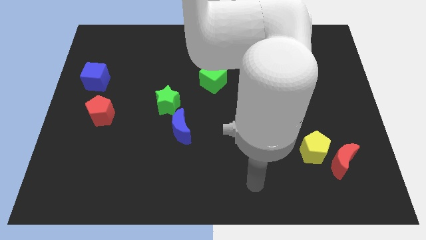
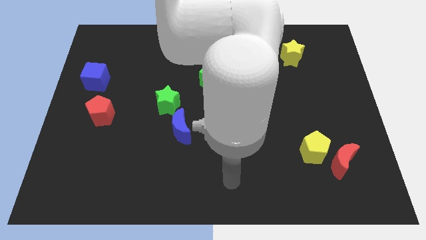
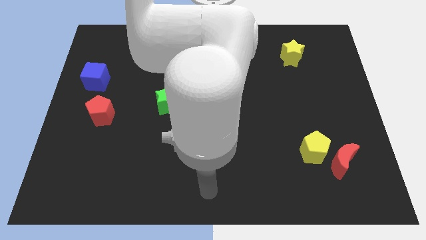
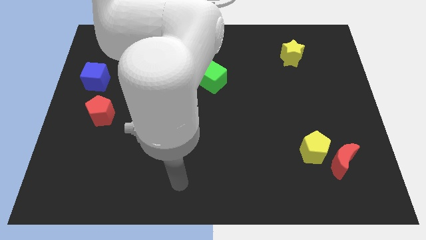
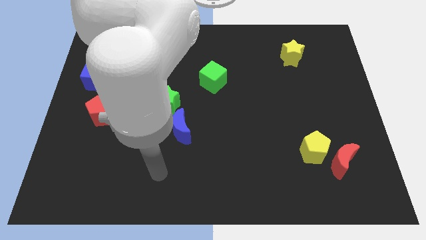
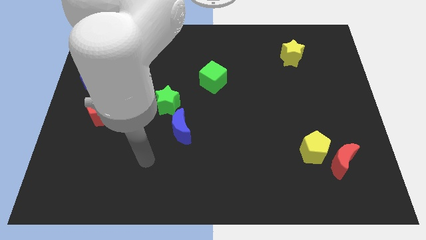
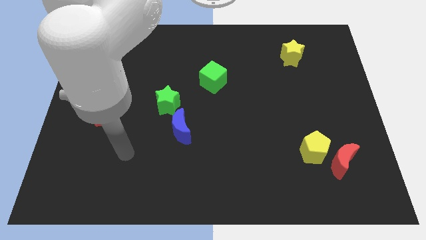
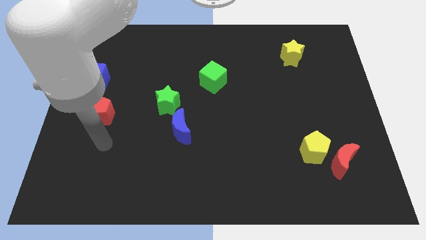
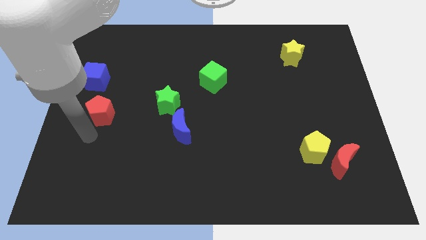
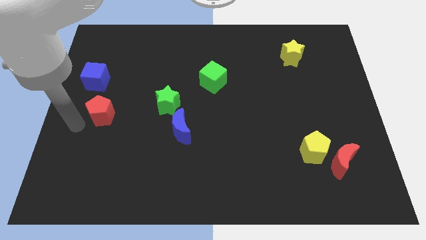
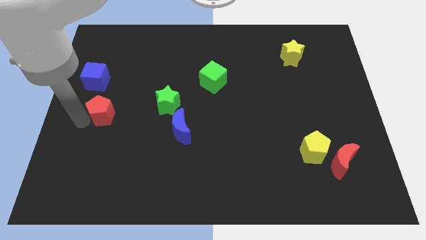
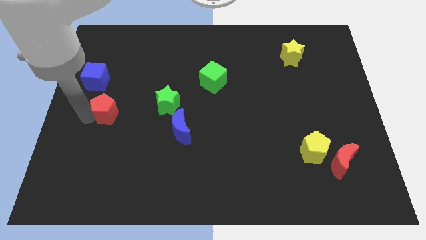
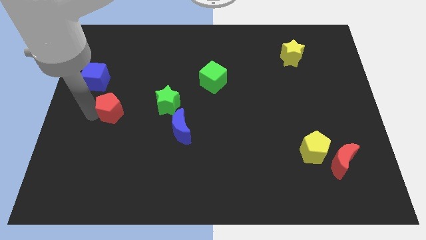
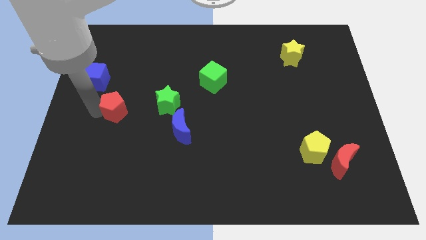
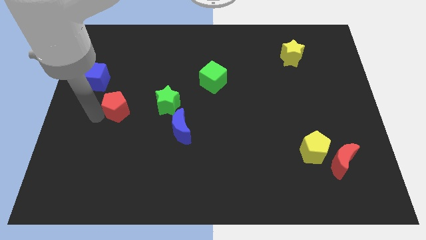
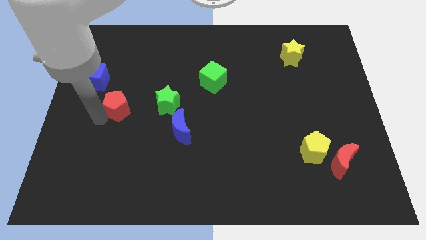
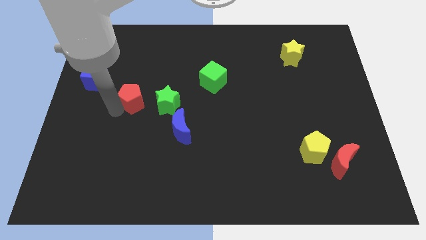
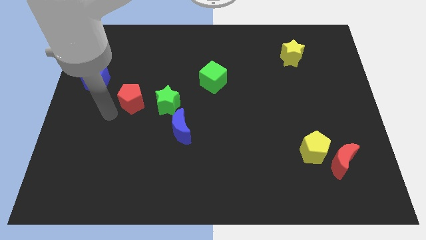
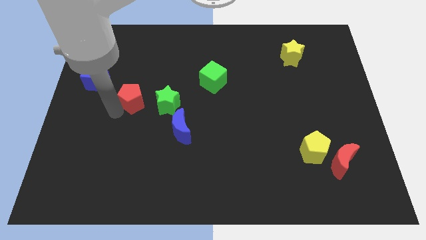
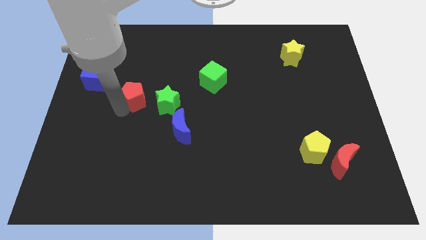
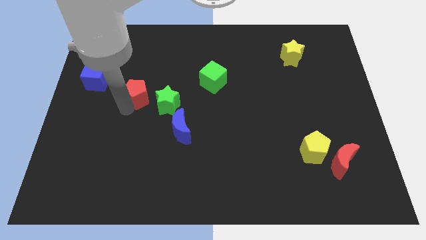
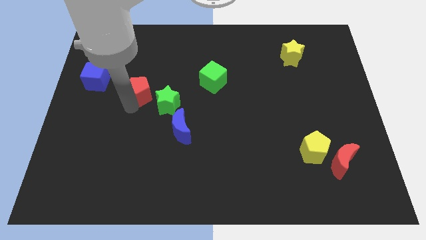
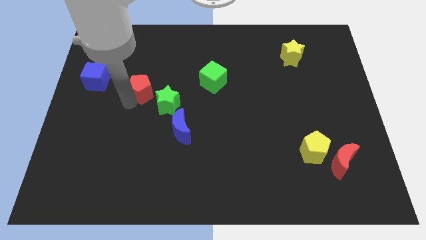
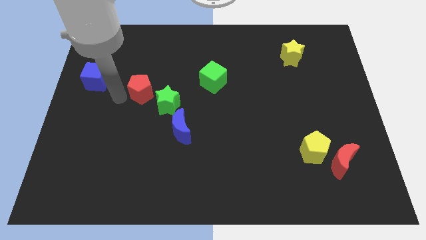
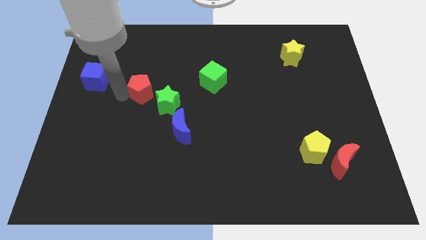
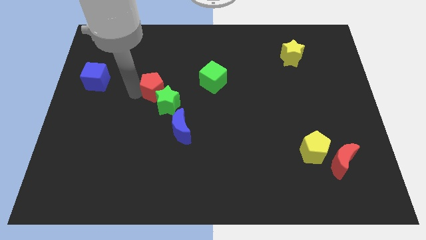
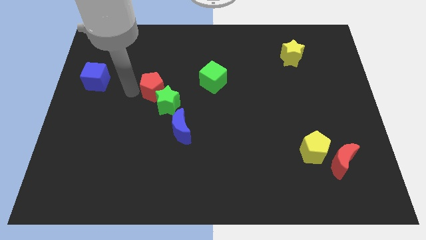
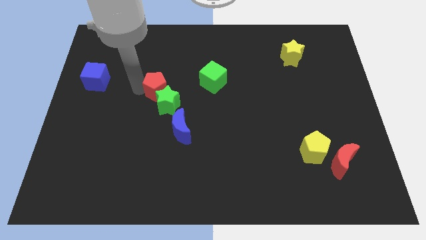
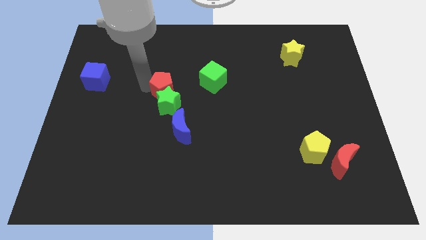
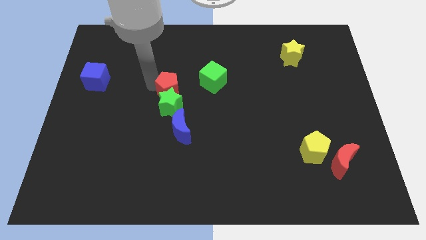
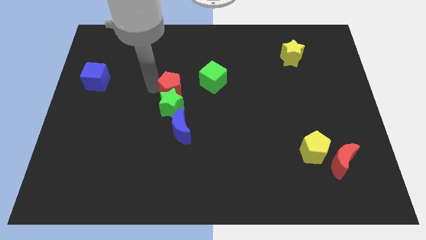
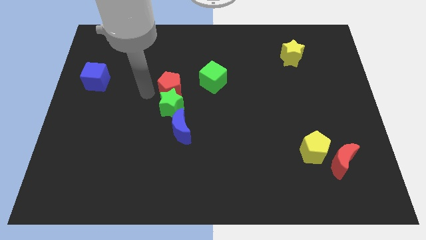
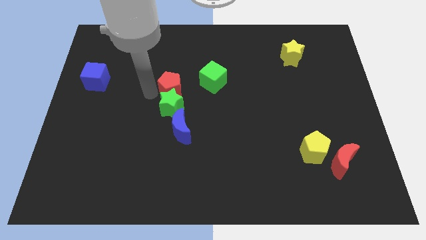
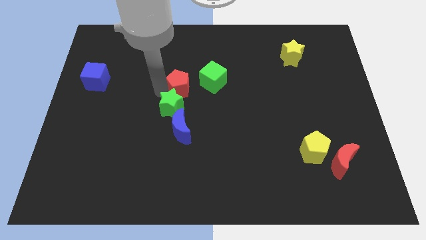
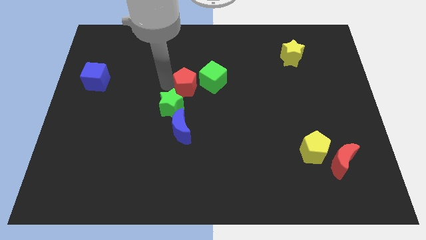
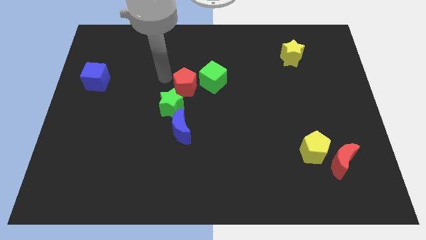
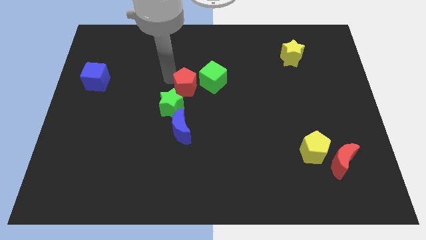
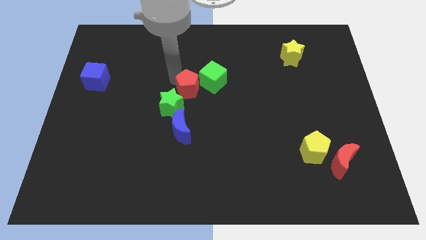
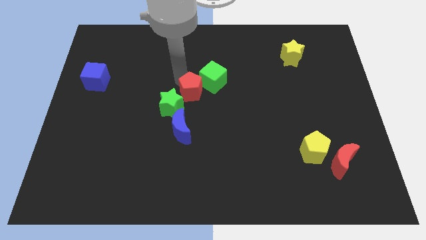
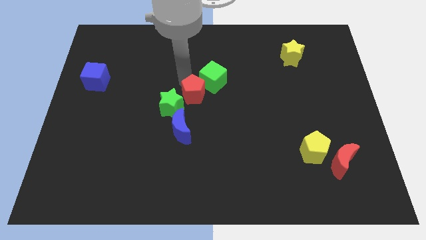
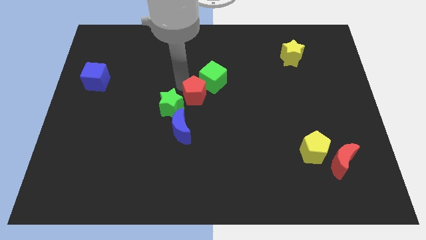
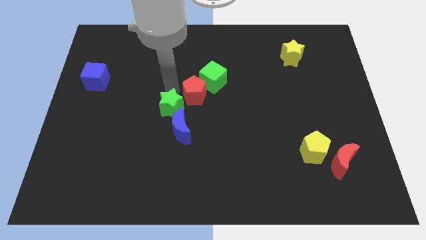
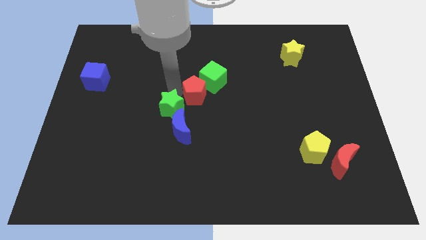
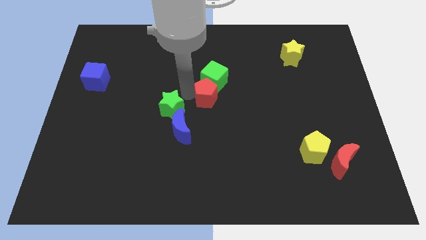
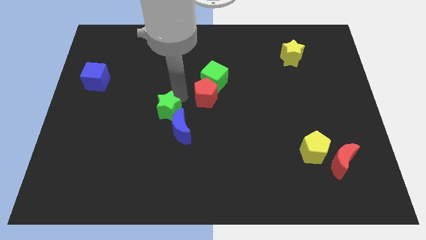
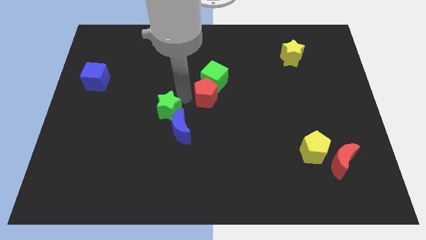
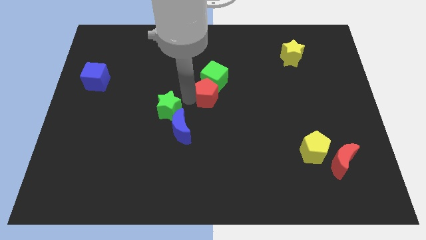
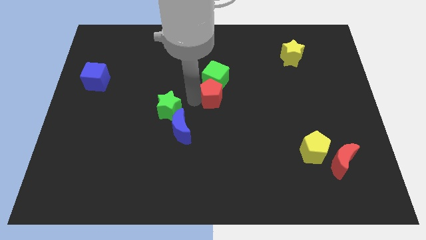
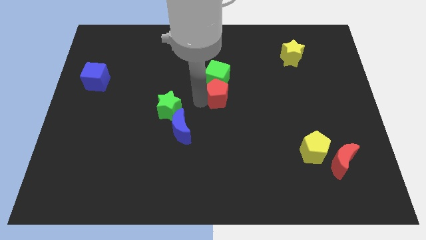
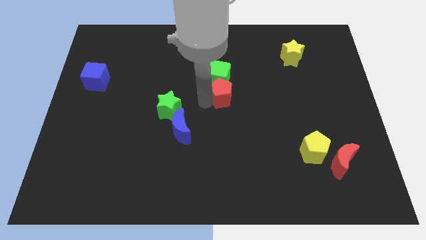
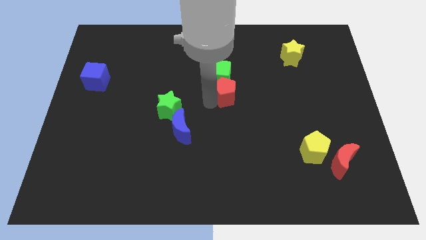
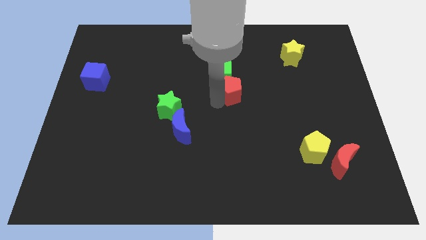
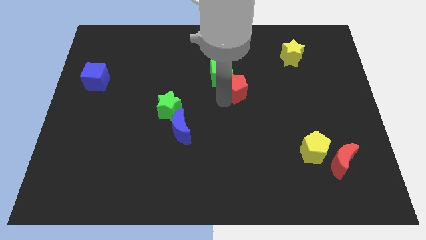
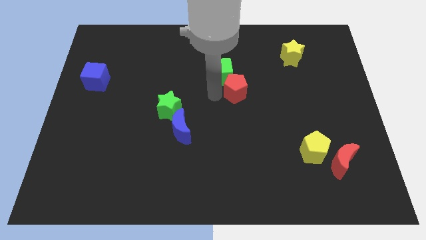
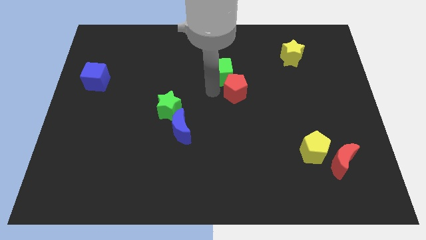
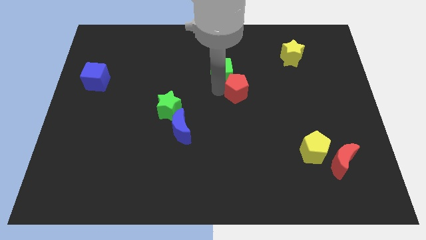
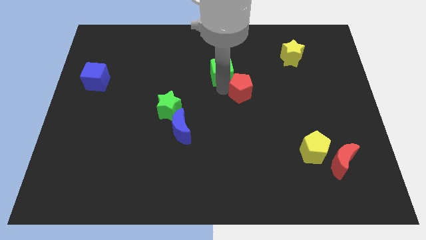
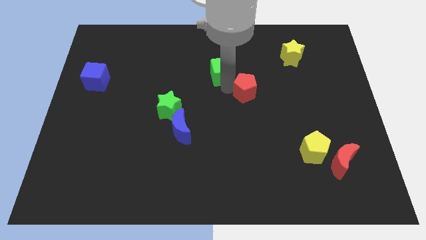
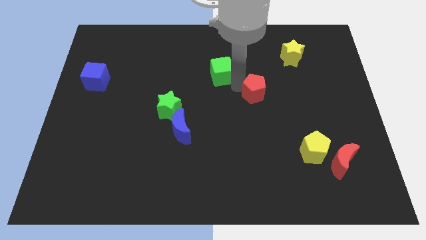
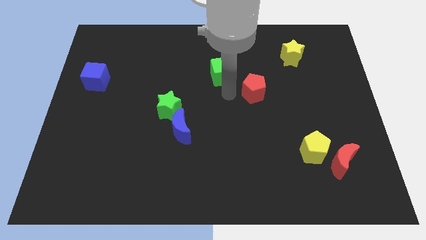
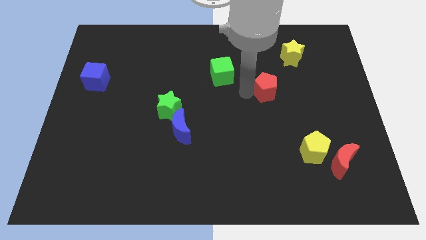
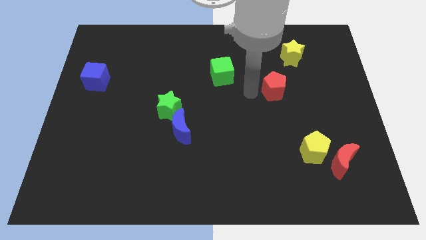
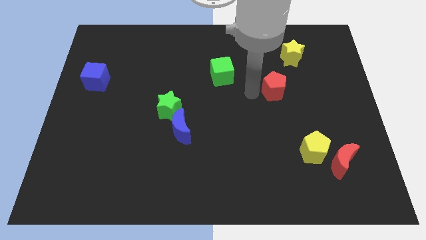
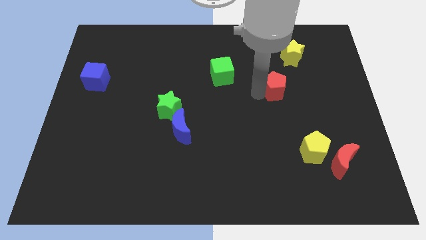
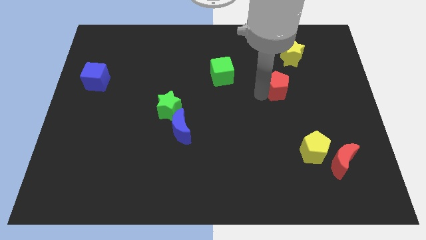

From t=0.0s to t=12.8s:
push the red pentagon below the yellow star
